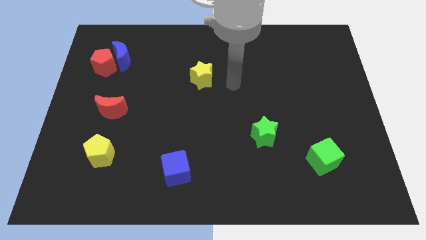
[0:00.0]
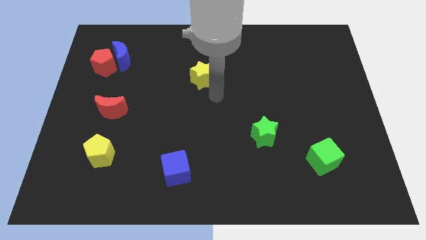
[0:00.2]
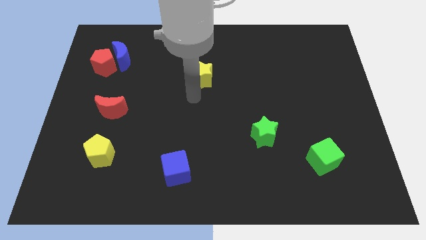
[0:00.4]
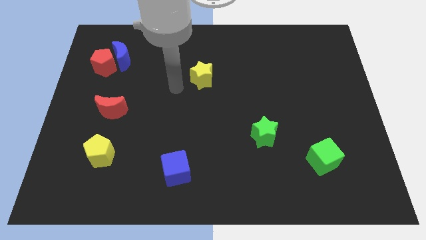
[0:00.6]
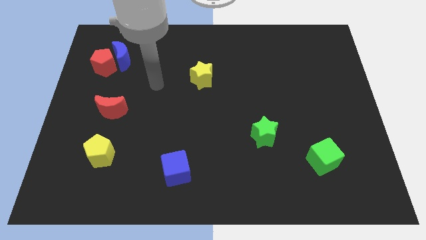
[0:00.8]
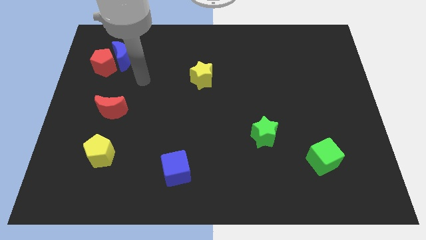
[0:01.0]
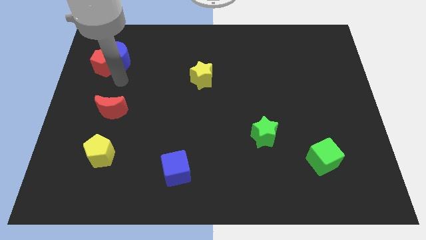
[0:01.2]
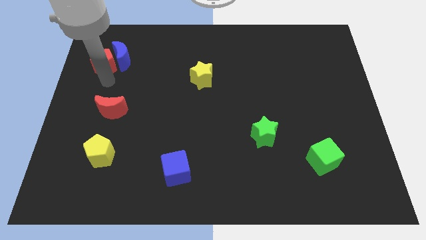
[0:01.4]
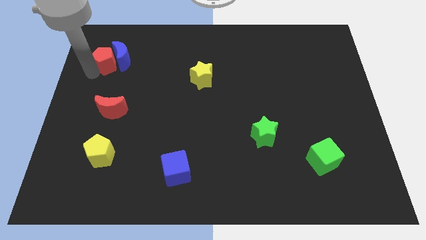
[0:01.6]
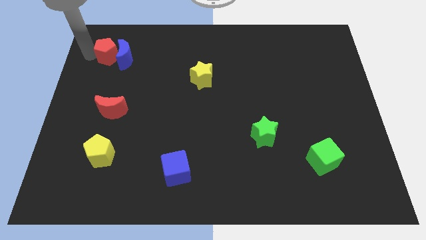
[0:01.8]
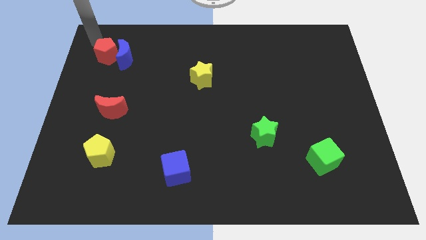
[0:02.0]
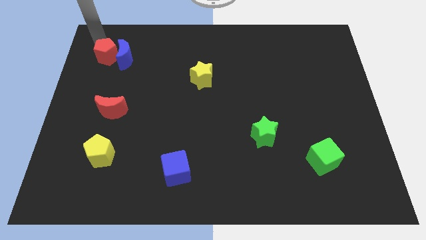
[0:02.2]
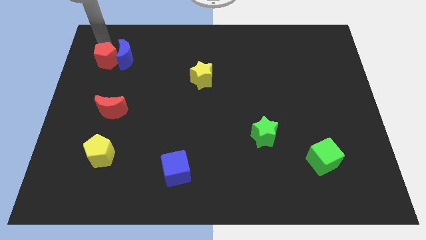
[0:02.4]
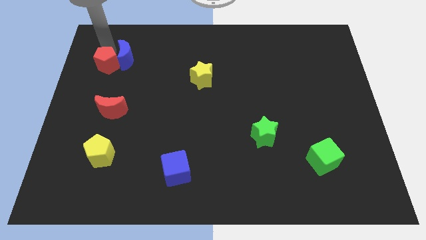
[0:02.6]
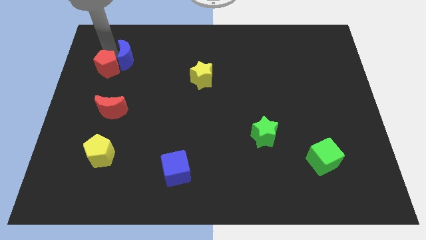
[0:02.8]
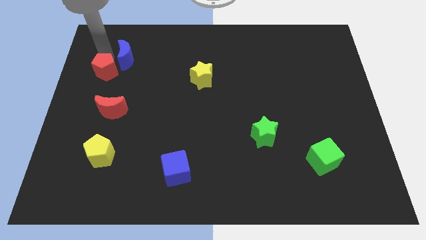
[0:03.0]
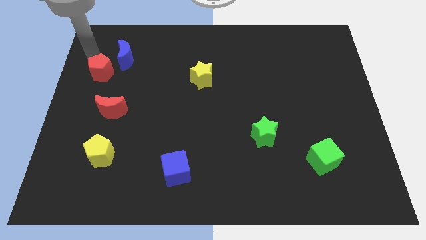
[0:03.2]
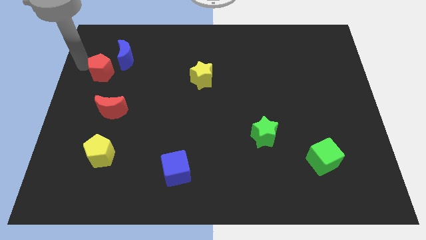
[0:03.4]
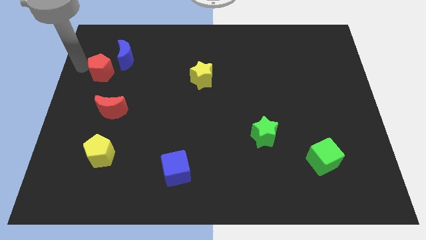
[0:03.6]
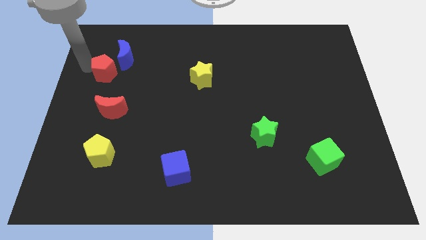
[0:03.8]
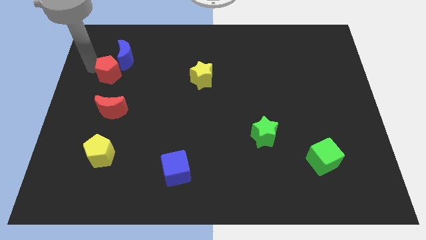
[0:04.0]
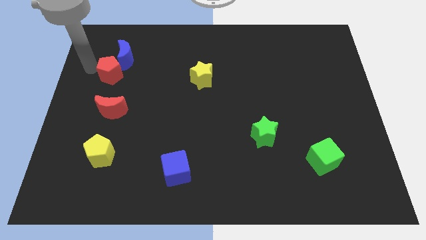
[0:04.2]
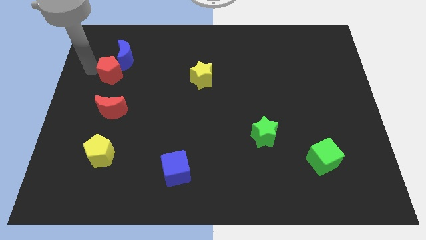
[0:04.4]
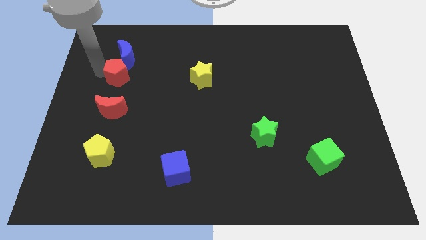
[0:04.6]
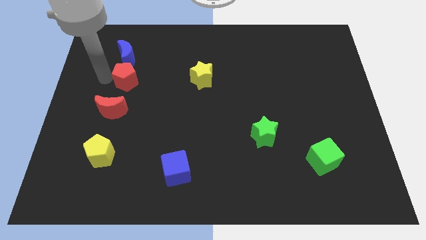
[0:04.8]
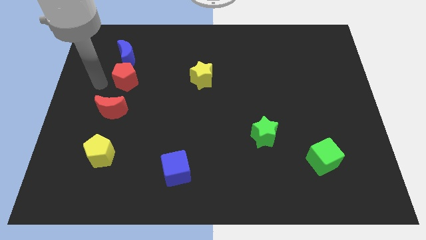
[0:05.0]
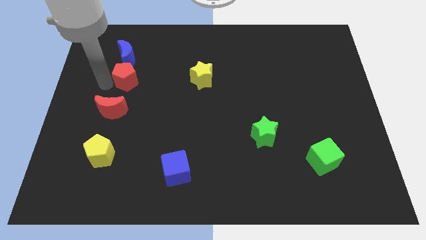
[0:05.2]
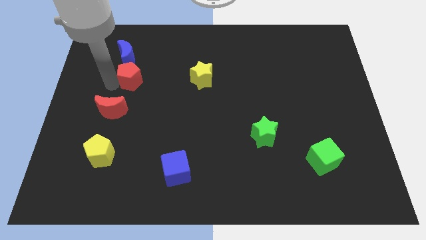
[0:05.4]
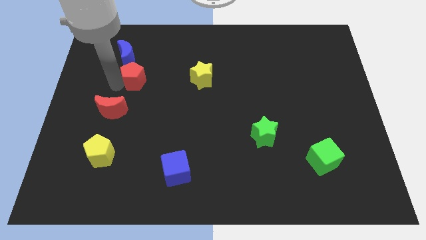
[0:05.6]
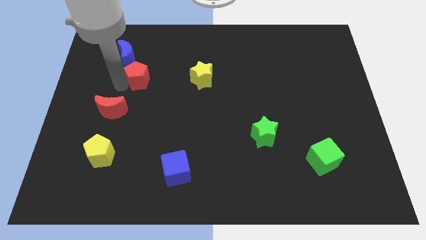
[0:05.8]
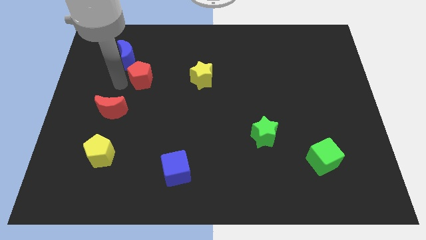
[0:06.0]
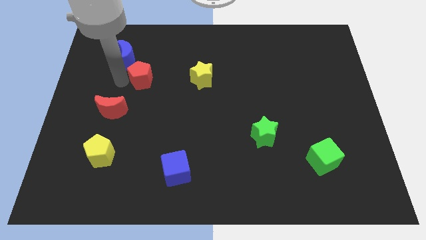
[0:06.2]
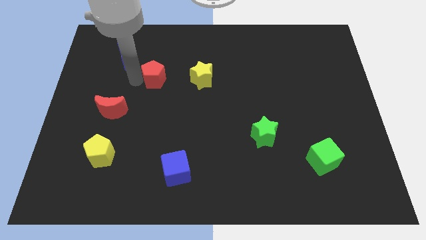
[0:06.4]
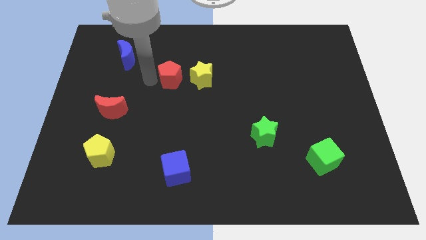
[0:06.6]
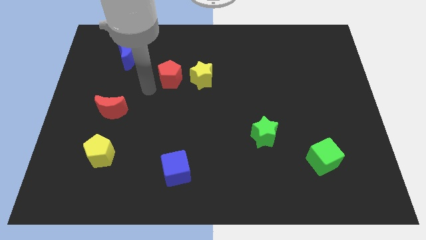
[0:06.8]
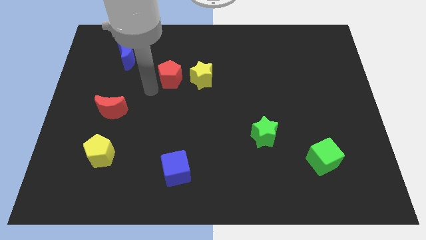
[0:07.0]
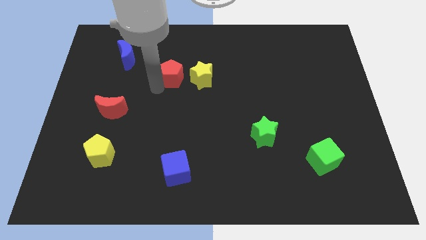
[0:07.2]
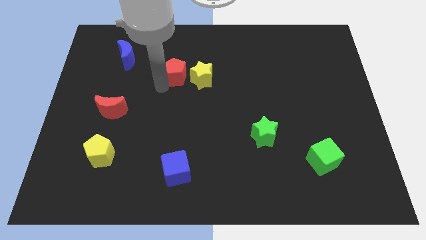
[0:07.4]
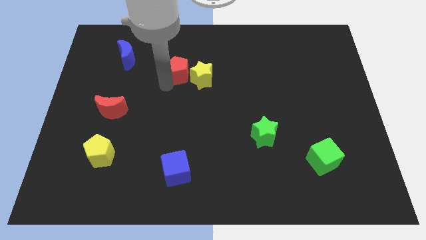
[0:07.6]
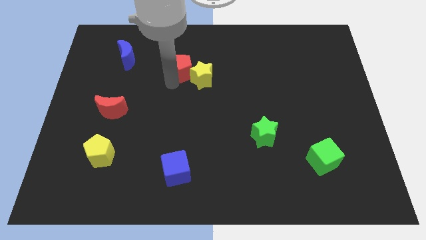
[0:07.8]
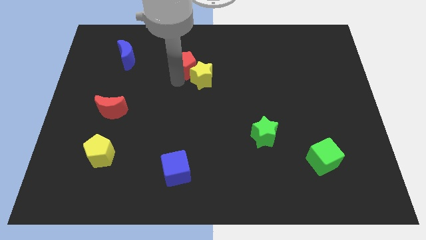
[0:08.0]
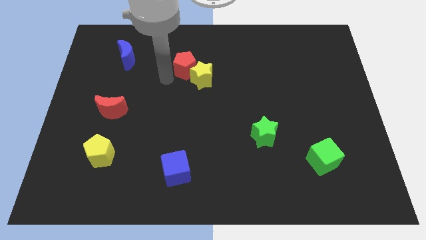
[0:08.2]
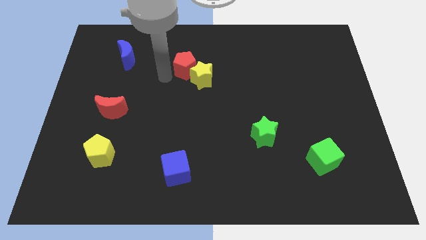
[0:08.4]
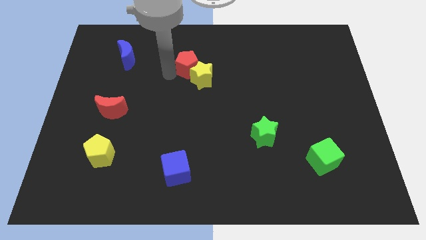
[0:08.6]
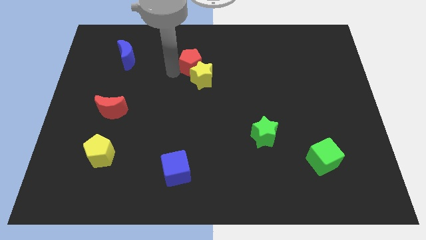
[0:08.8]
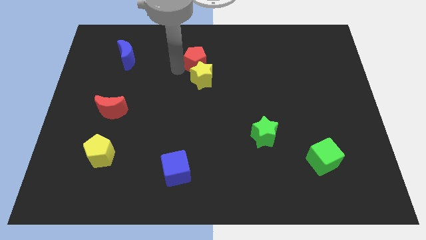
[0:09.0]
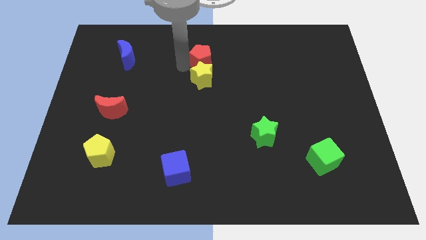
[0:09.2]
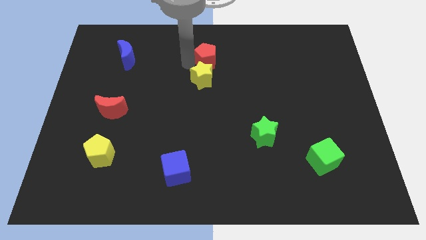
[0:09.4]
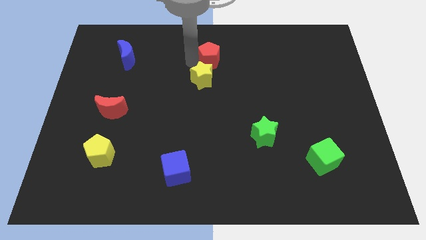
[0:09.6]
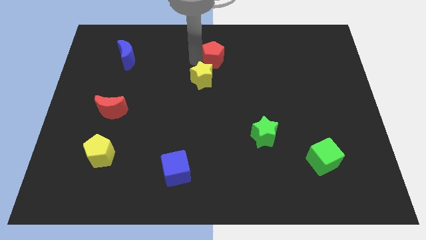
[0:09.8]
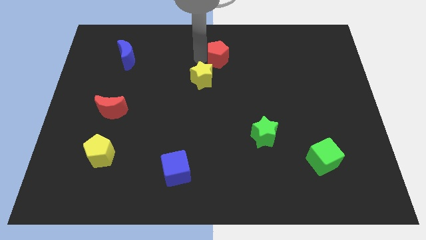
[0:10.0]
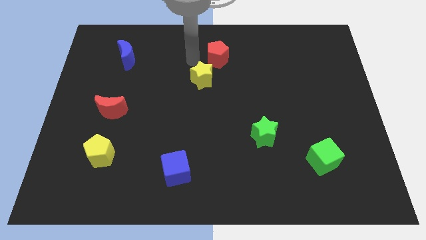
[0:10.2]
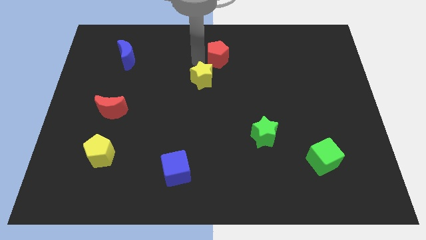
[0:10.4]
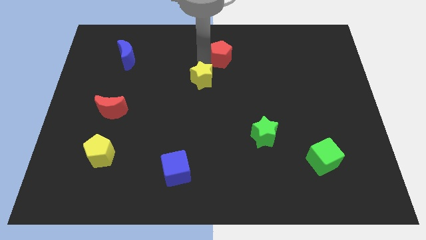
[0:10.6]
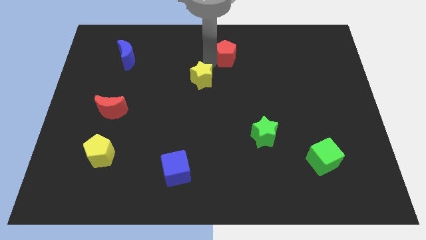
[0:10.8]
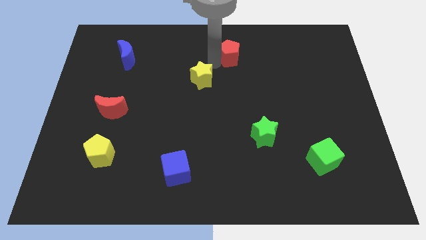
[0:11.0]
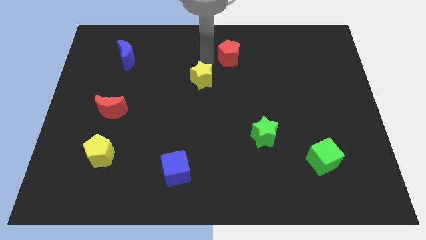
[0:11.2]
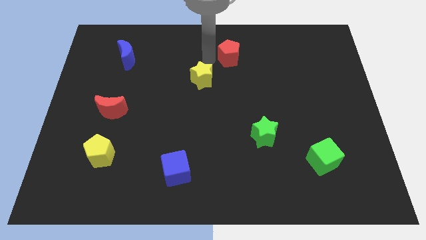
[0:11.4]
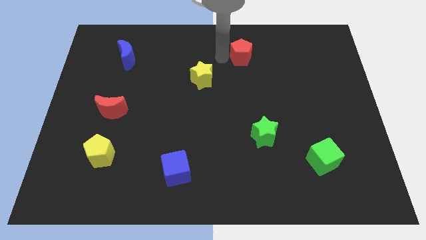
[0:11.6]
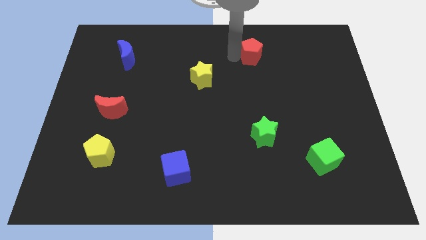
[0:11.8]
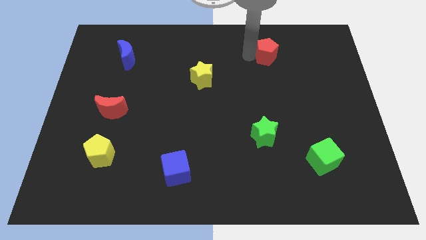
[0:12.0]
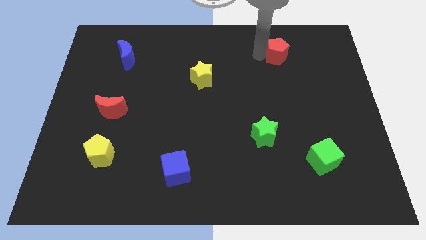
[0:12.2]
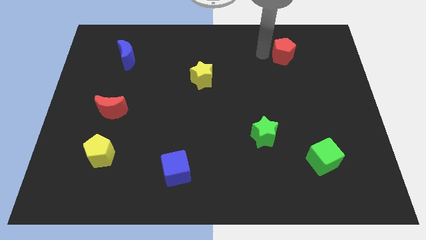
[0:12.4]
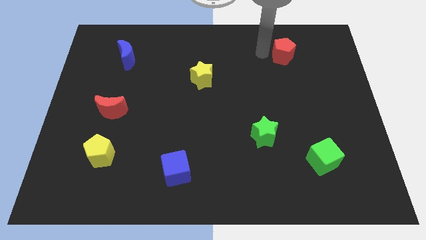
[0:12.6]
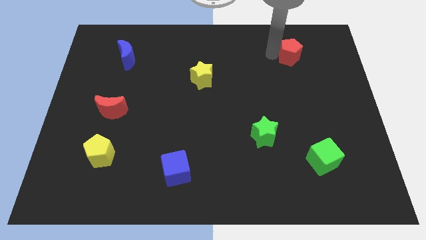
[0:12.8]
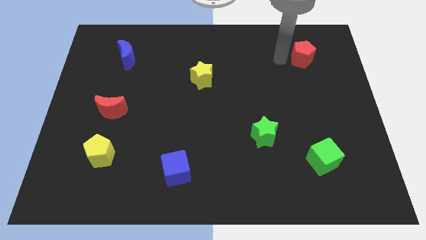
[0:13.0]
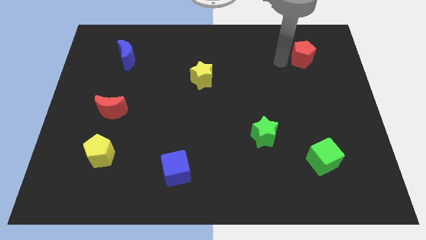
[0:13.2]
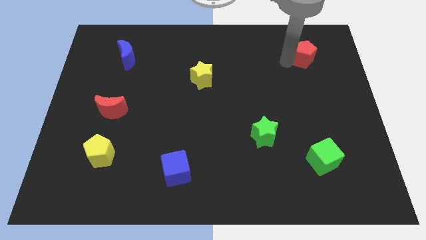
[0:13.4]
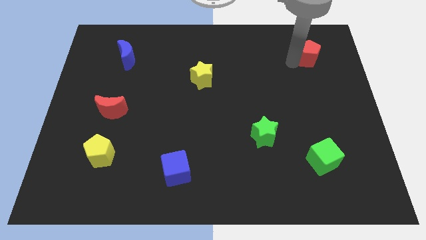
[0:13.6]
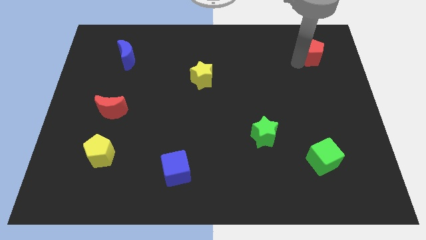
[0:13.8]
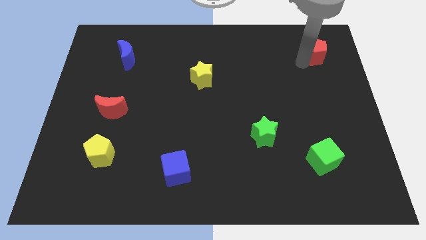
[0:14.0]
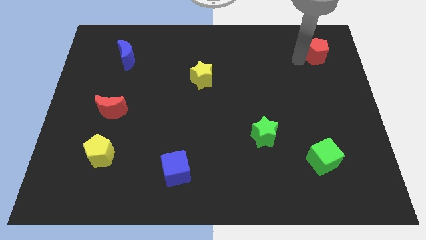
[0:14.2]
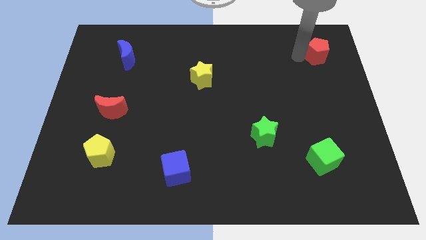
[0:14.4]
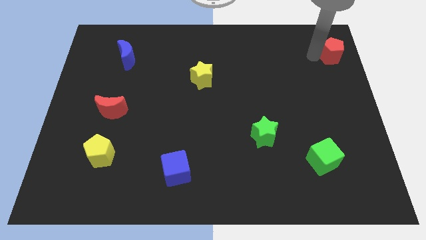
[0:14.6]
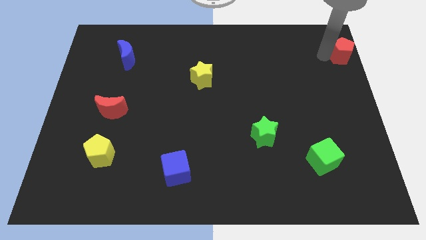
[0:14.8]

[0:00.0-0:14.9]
put the red pentagon to the top right of the board
